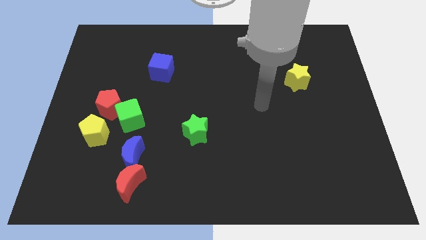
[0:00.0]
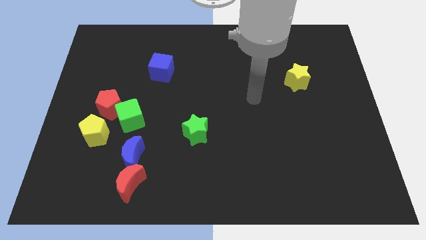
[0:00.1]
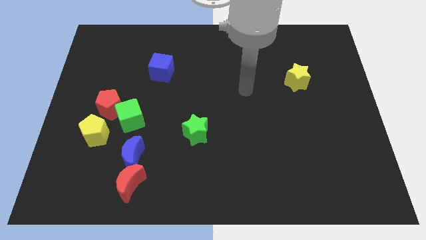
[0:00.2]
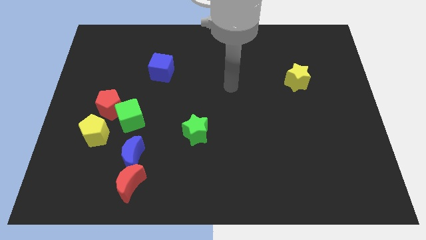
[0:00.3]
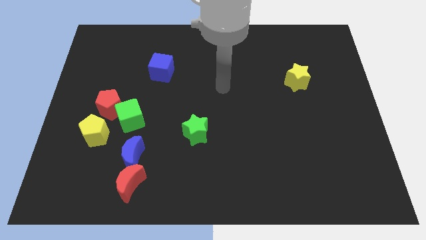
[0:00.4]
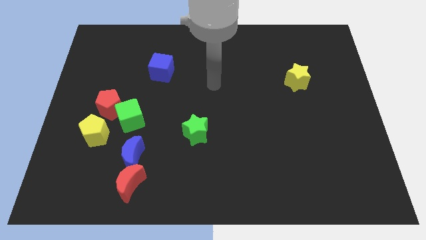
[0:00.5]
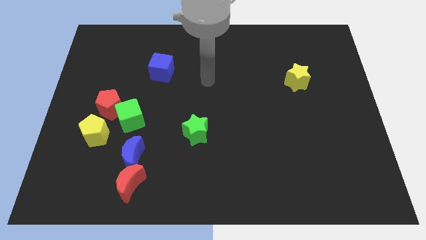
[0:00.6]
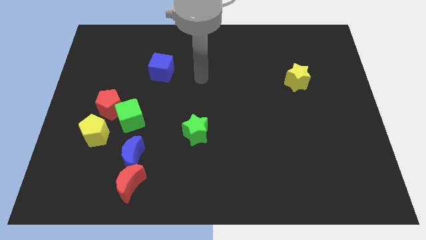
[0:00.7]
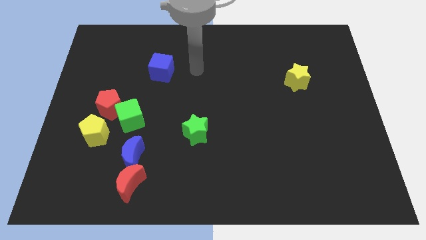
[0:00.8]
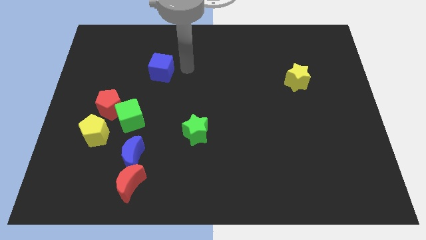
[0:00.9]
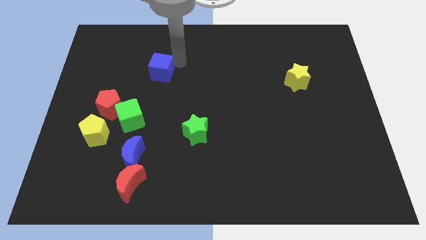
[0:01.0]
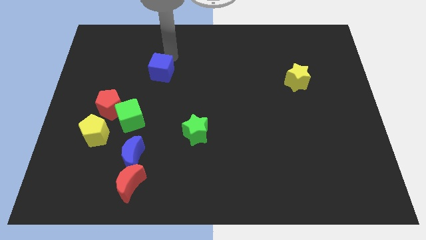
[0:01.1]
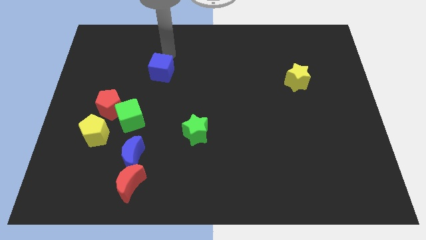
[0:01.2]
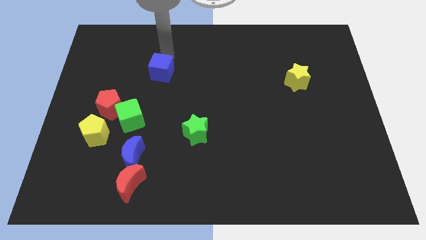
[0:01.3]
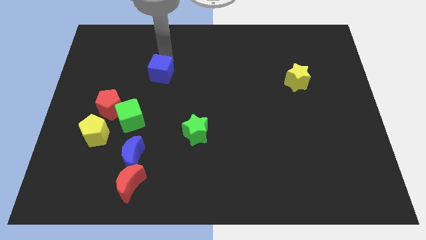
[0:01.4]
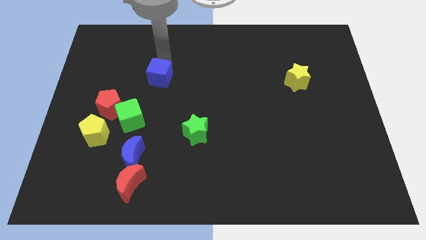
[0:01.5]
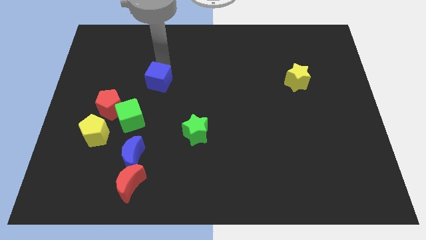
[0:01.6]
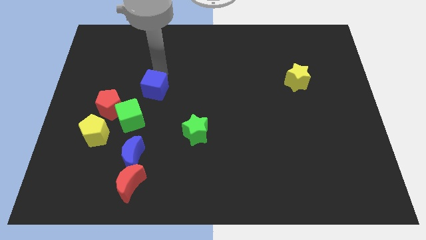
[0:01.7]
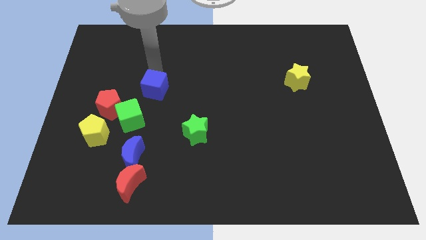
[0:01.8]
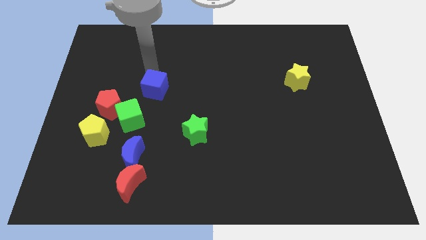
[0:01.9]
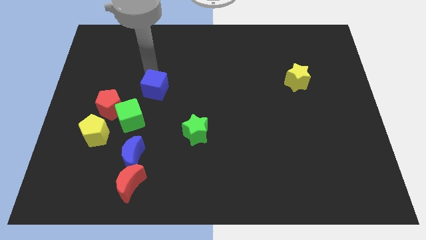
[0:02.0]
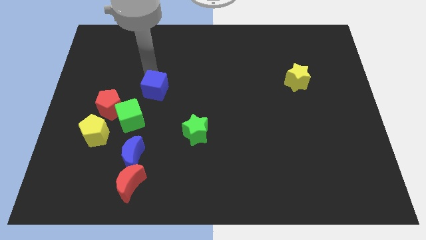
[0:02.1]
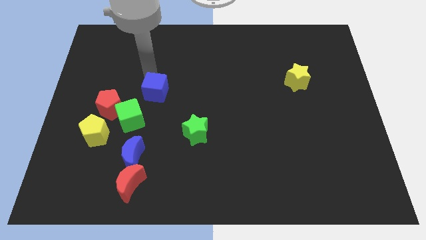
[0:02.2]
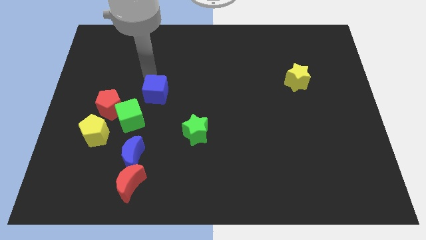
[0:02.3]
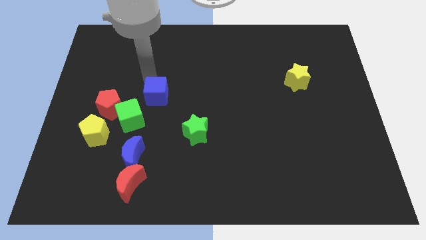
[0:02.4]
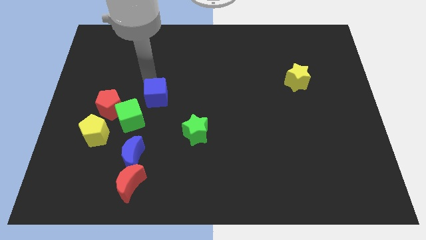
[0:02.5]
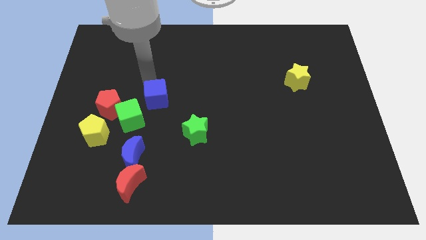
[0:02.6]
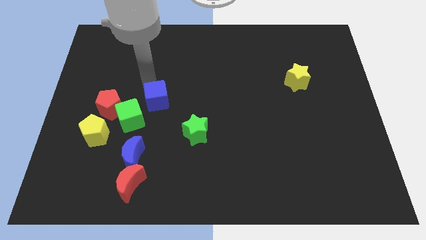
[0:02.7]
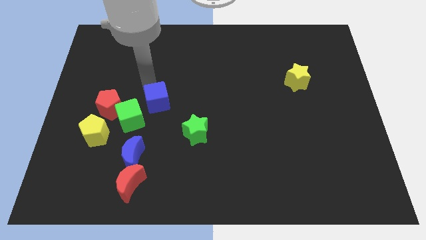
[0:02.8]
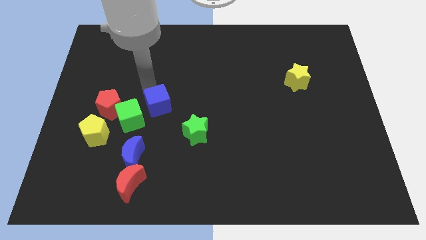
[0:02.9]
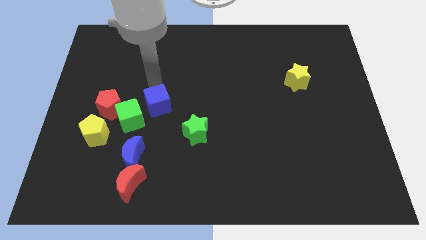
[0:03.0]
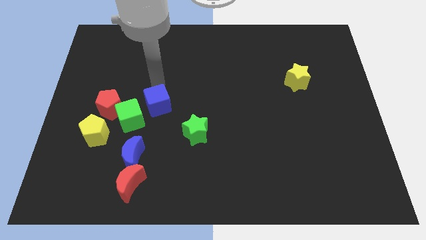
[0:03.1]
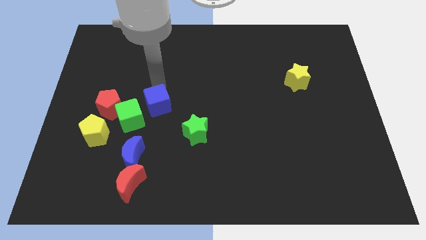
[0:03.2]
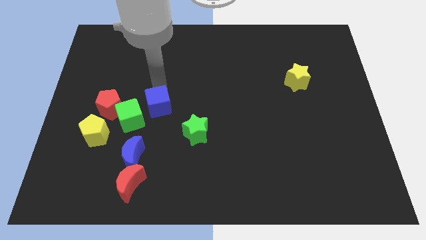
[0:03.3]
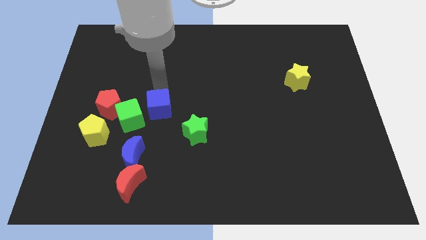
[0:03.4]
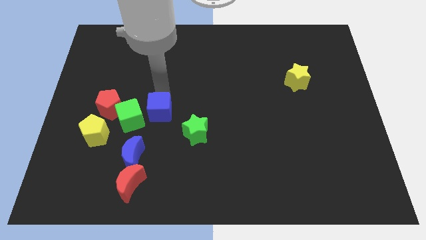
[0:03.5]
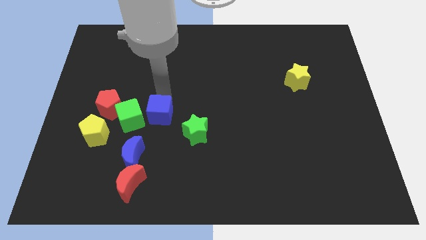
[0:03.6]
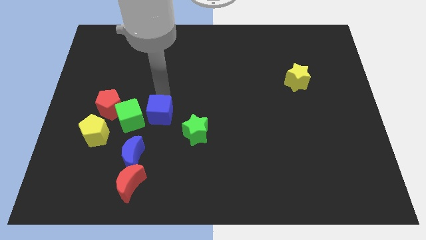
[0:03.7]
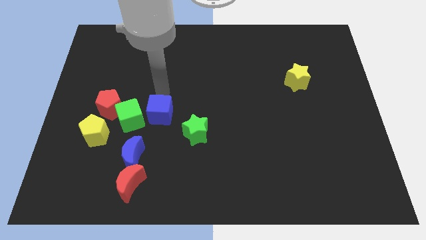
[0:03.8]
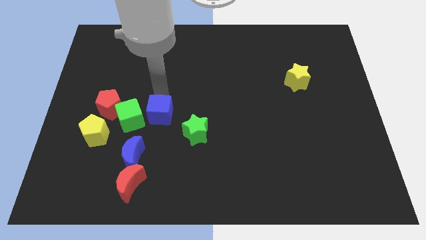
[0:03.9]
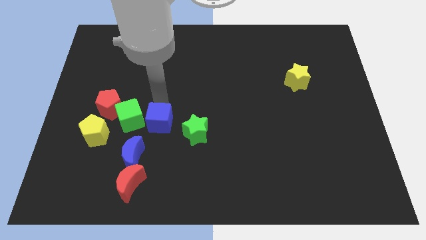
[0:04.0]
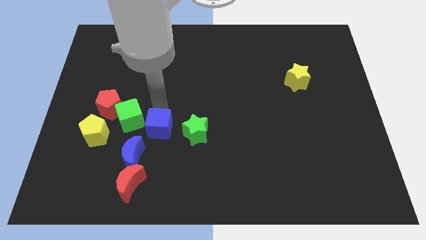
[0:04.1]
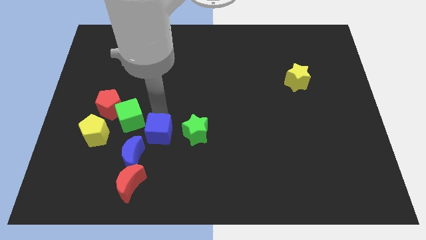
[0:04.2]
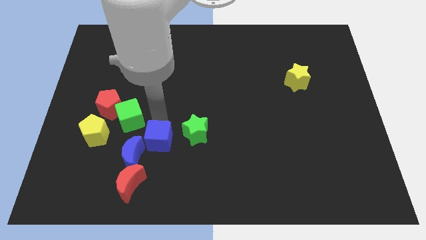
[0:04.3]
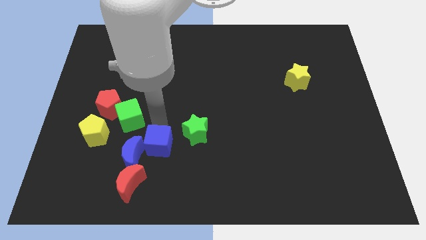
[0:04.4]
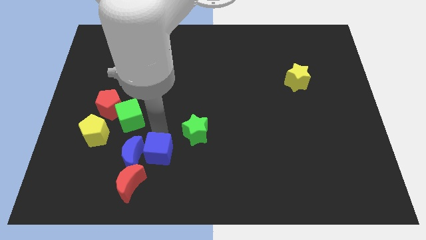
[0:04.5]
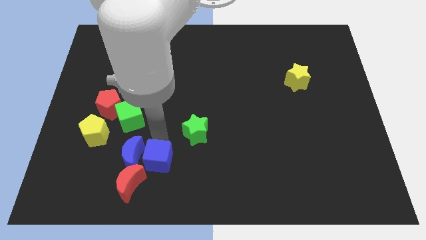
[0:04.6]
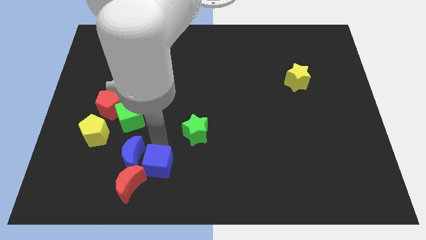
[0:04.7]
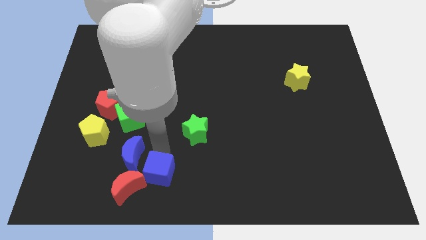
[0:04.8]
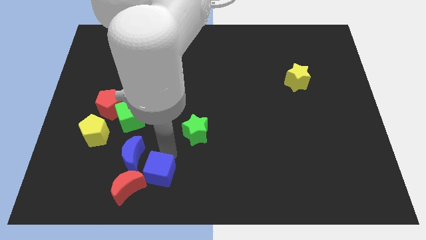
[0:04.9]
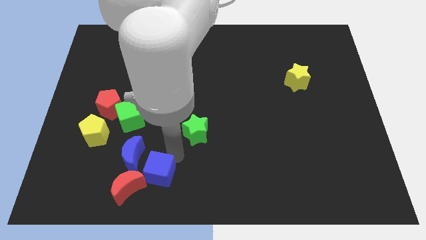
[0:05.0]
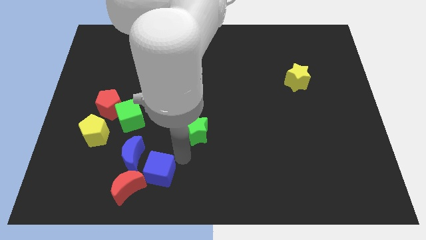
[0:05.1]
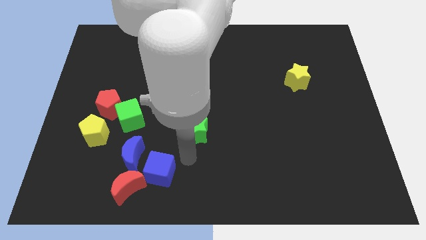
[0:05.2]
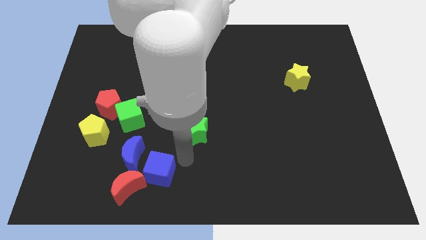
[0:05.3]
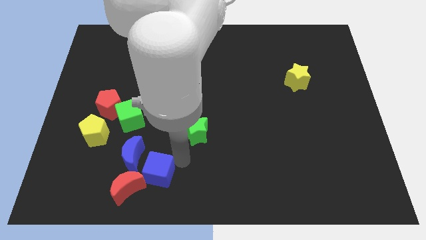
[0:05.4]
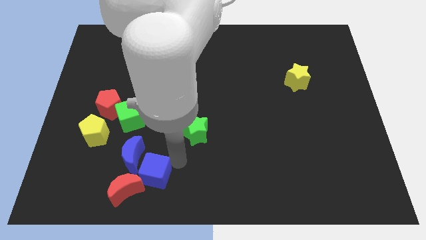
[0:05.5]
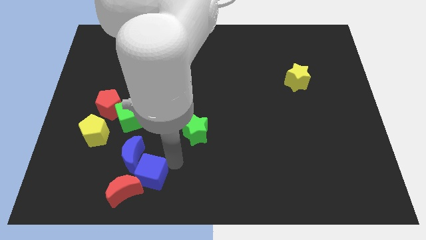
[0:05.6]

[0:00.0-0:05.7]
push the blue cube to the red moon

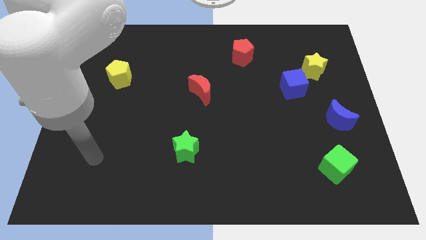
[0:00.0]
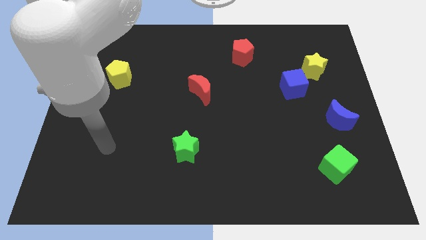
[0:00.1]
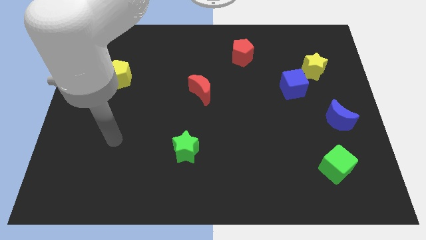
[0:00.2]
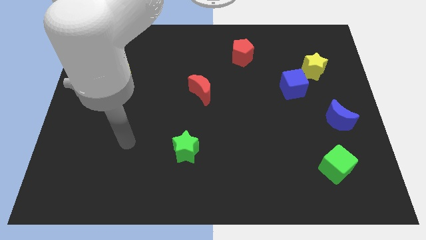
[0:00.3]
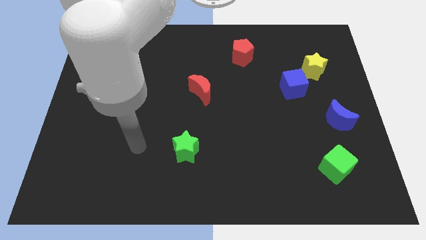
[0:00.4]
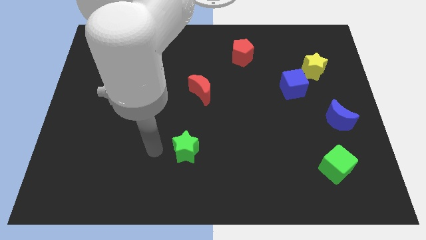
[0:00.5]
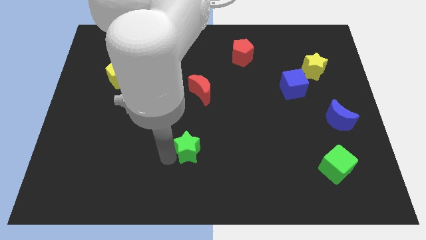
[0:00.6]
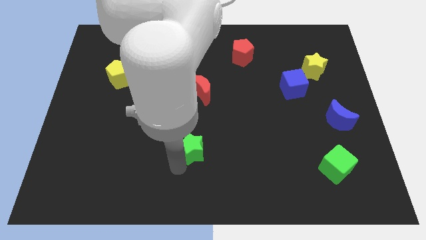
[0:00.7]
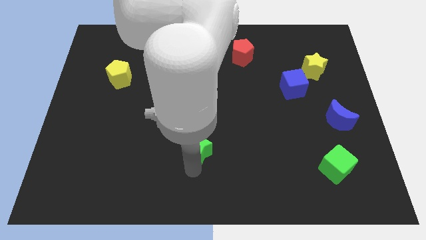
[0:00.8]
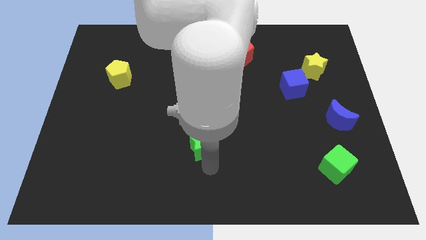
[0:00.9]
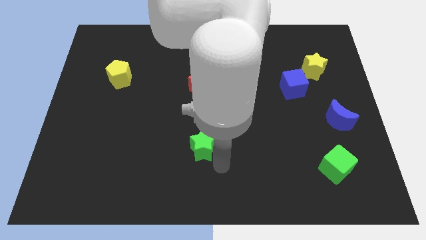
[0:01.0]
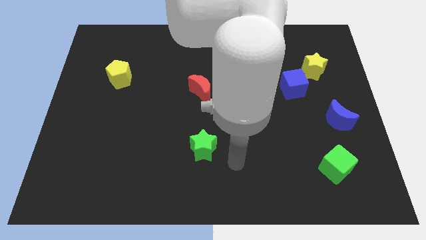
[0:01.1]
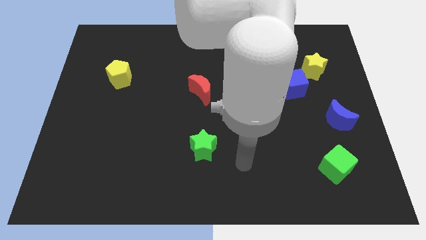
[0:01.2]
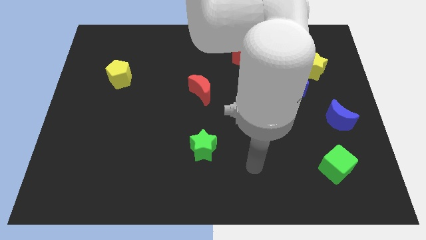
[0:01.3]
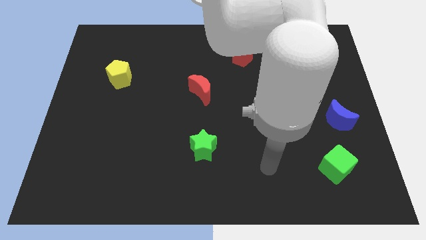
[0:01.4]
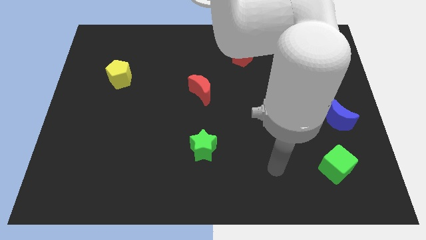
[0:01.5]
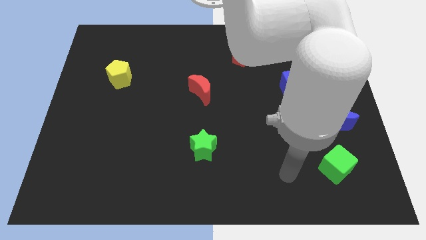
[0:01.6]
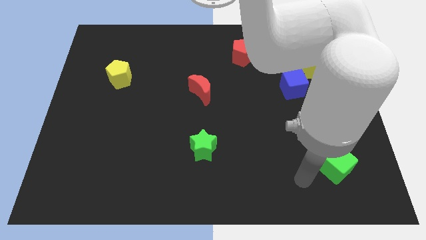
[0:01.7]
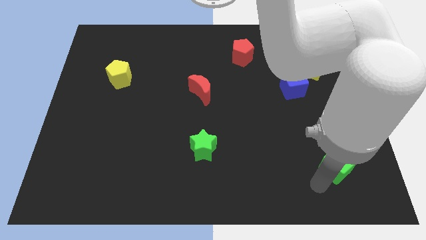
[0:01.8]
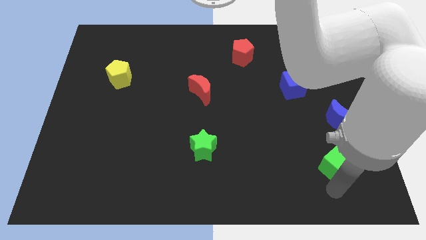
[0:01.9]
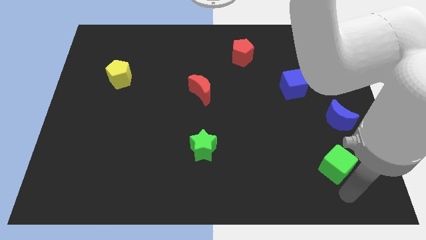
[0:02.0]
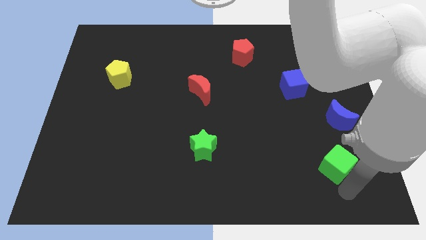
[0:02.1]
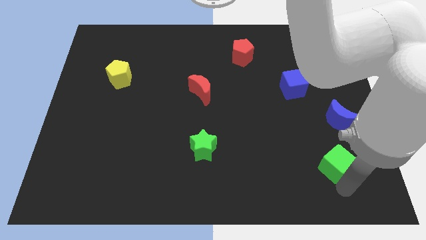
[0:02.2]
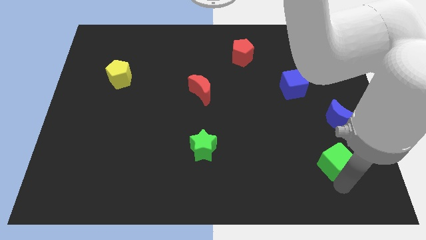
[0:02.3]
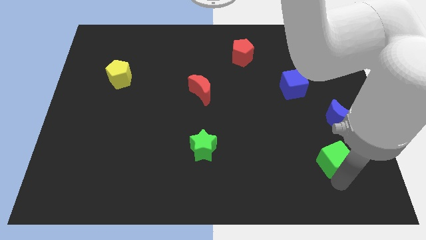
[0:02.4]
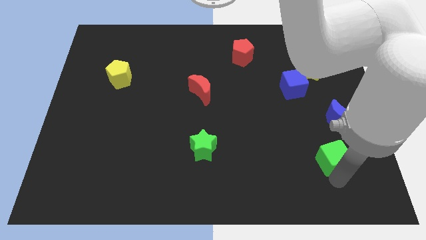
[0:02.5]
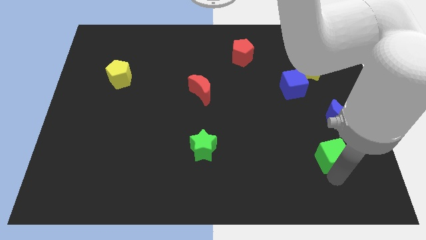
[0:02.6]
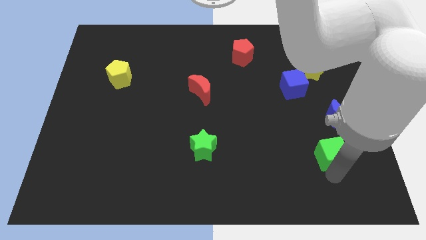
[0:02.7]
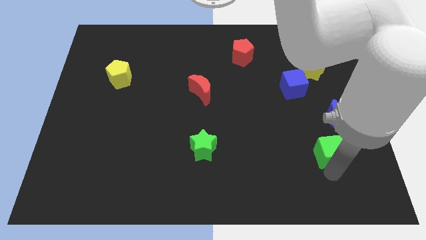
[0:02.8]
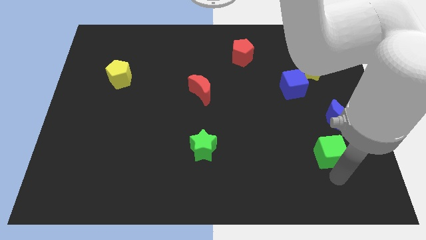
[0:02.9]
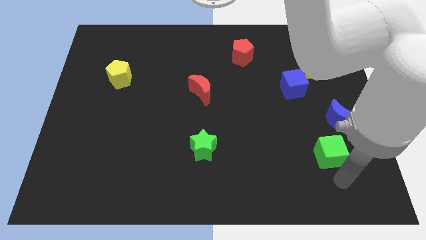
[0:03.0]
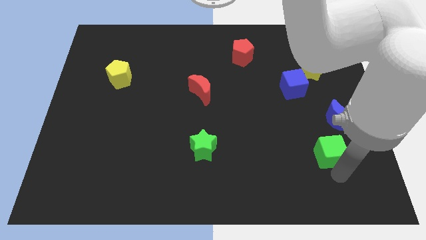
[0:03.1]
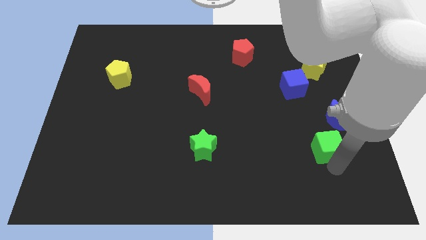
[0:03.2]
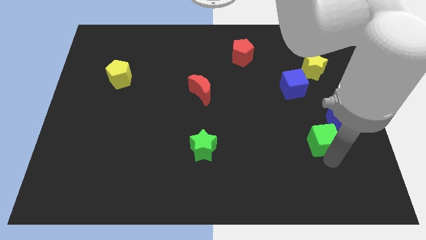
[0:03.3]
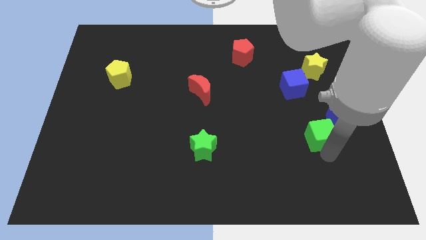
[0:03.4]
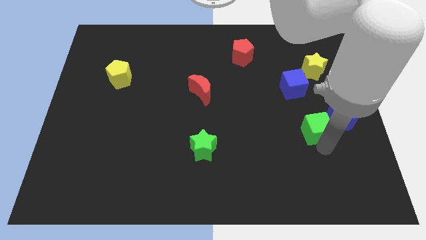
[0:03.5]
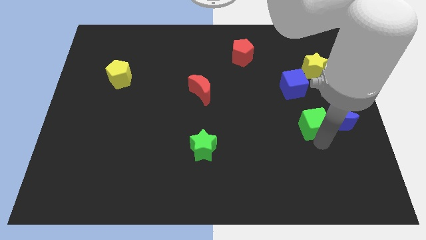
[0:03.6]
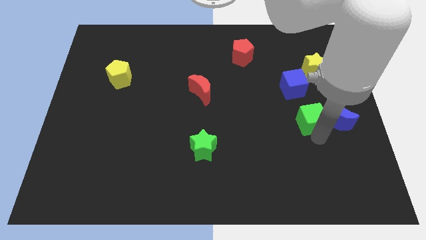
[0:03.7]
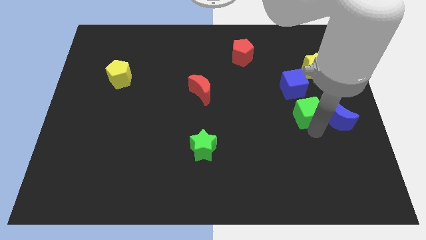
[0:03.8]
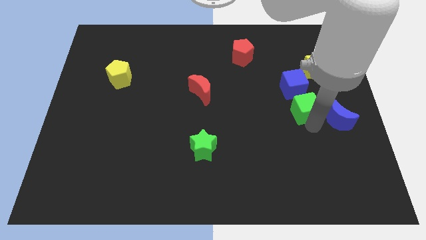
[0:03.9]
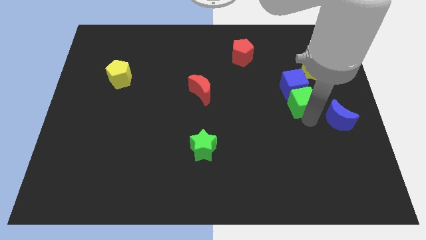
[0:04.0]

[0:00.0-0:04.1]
push the green cube next to the blue cube
